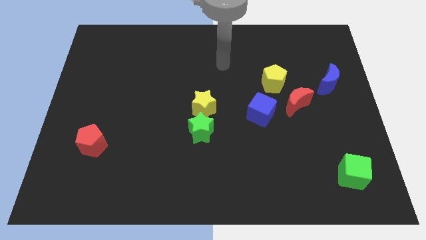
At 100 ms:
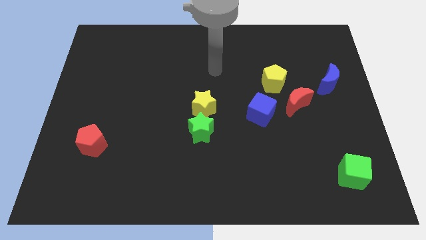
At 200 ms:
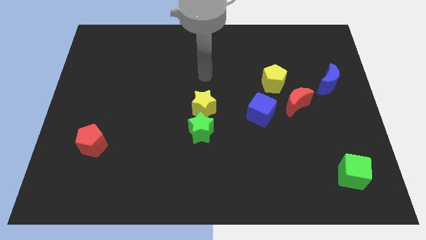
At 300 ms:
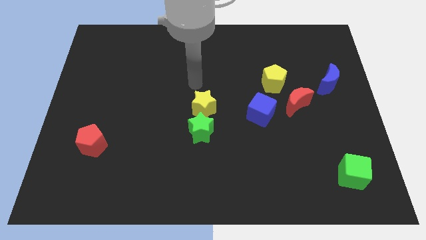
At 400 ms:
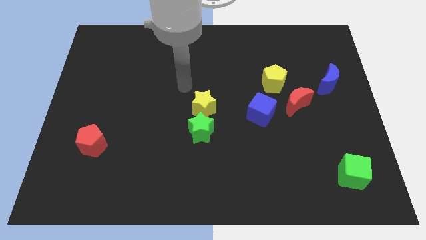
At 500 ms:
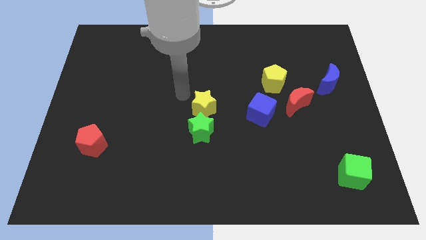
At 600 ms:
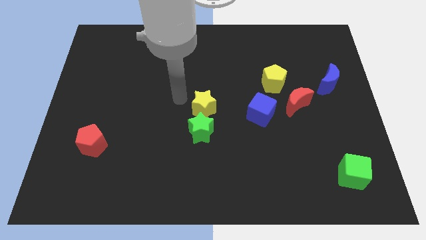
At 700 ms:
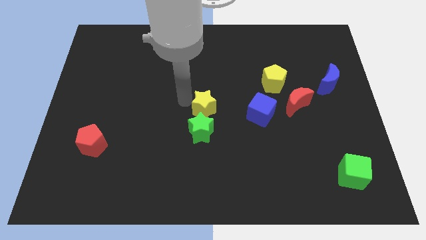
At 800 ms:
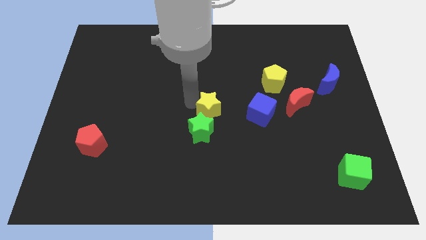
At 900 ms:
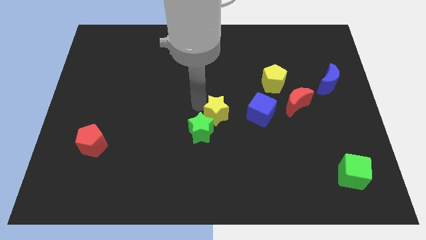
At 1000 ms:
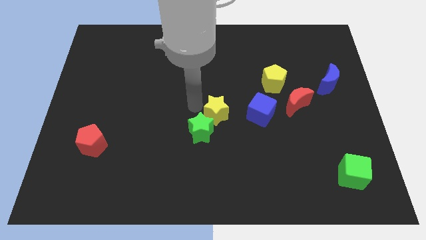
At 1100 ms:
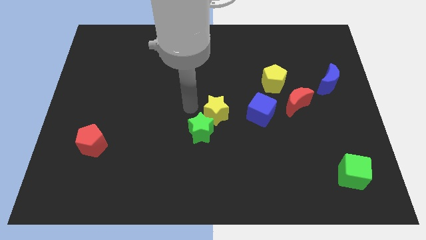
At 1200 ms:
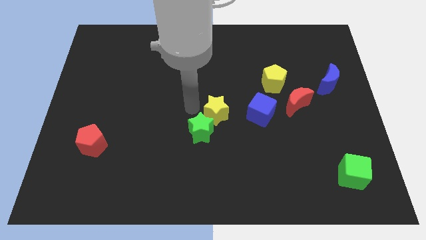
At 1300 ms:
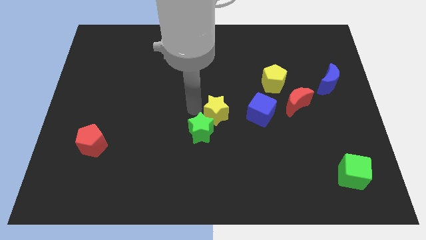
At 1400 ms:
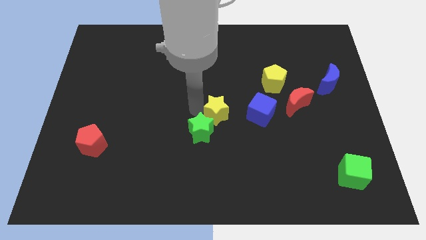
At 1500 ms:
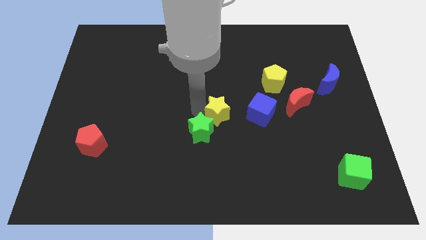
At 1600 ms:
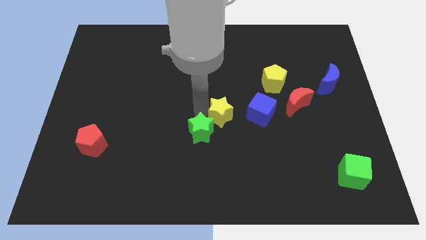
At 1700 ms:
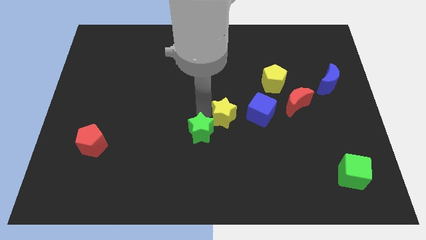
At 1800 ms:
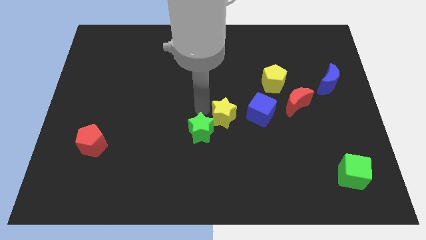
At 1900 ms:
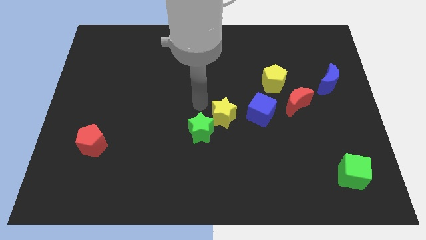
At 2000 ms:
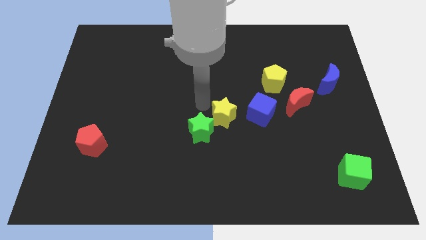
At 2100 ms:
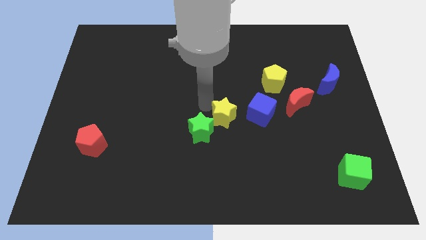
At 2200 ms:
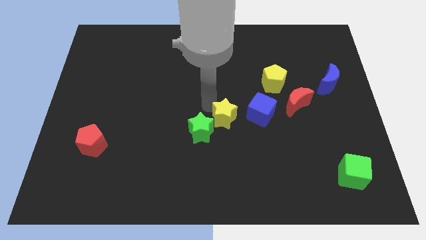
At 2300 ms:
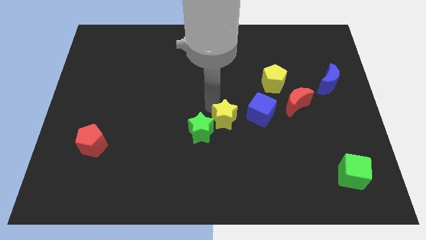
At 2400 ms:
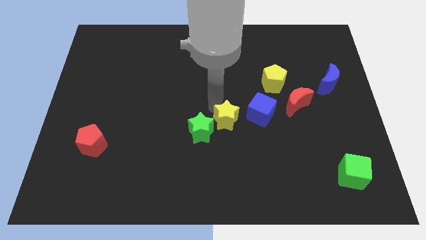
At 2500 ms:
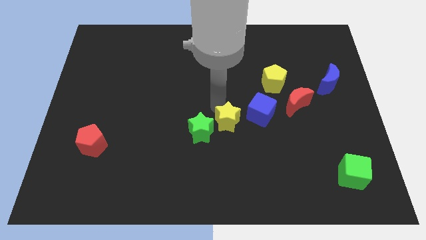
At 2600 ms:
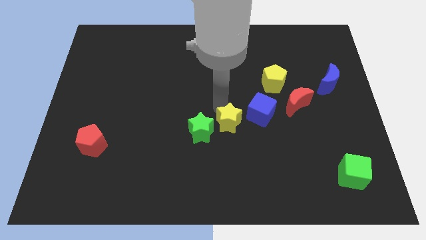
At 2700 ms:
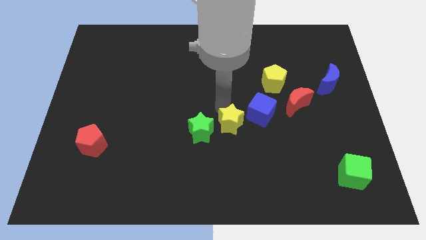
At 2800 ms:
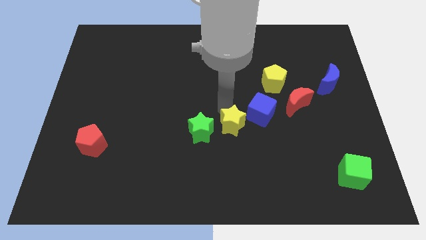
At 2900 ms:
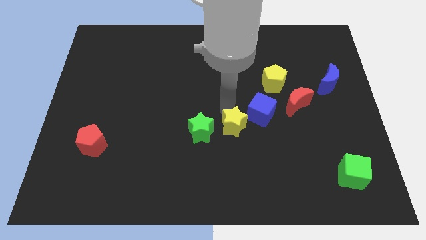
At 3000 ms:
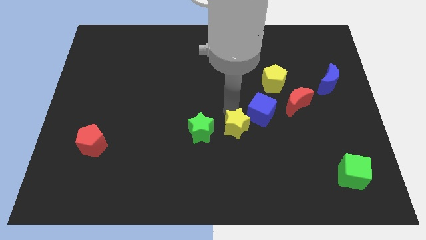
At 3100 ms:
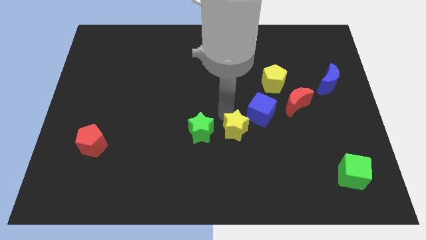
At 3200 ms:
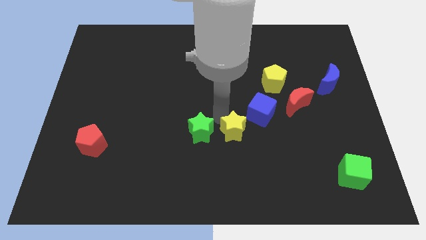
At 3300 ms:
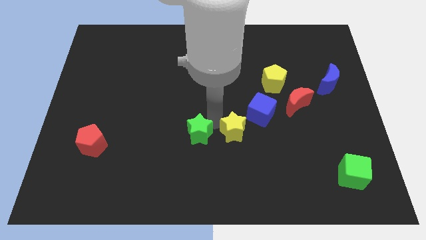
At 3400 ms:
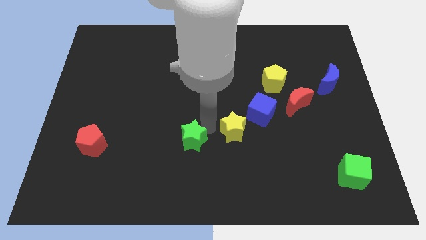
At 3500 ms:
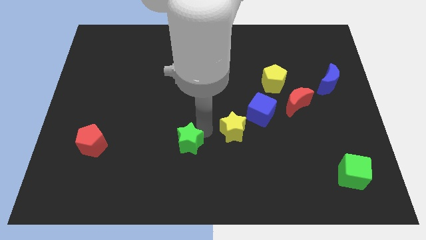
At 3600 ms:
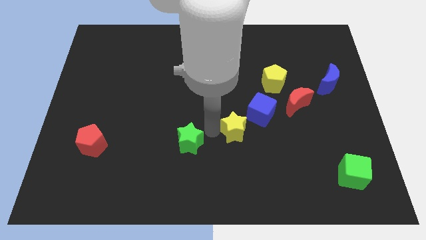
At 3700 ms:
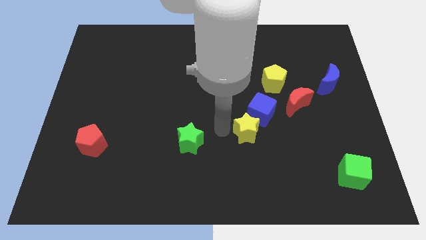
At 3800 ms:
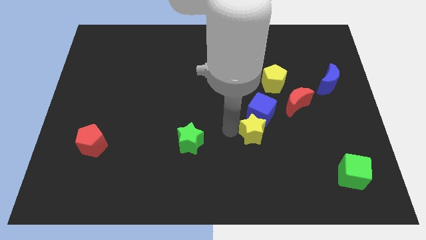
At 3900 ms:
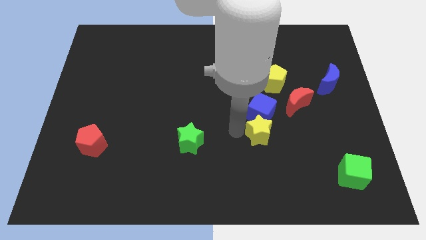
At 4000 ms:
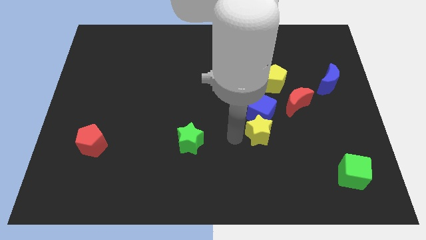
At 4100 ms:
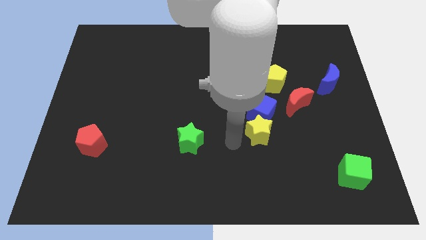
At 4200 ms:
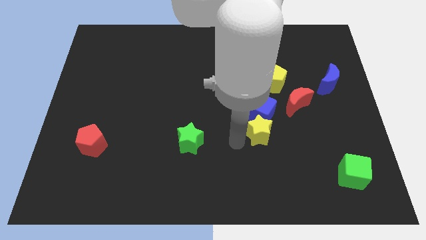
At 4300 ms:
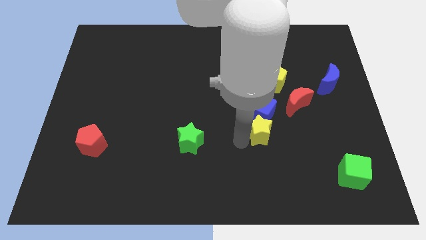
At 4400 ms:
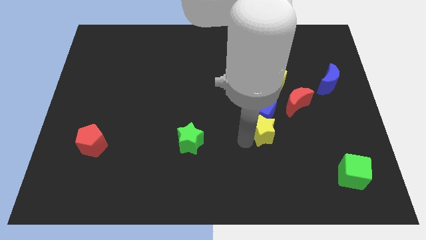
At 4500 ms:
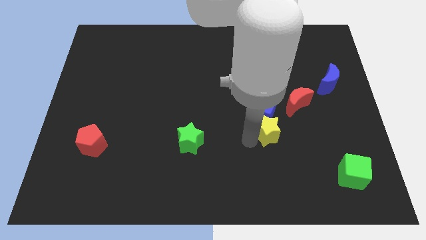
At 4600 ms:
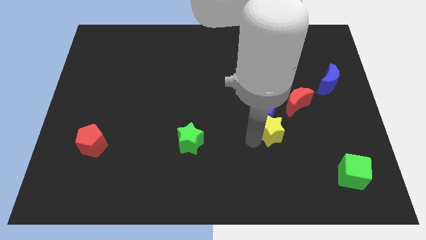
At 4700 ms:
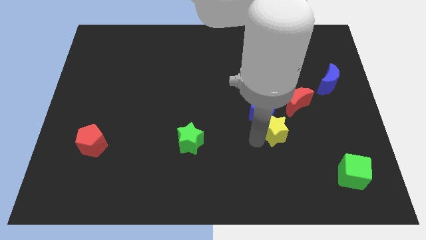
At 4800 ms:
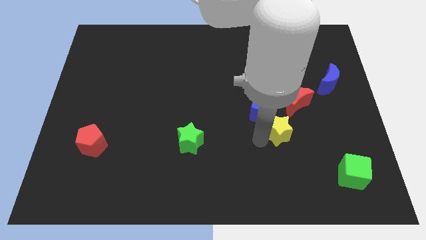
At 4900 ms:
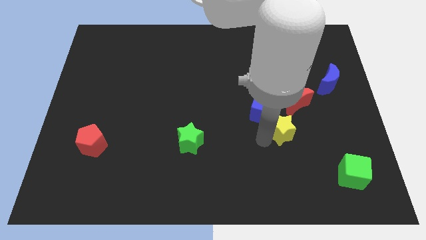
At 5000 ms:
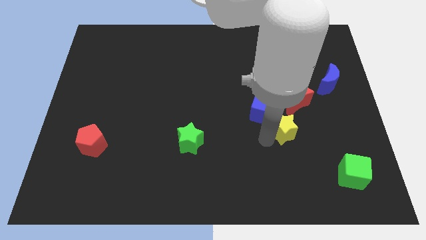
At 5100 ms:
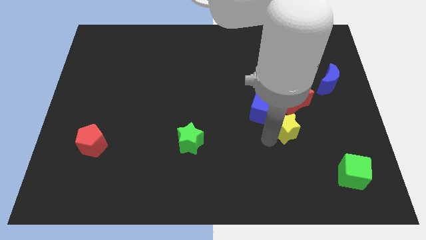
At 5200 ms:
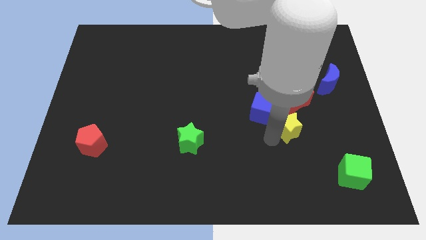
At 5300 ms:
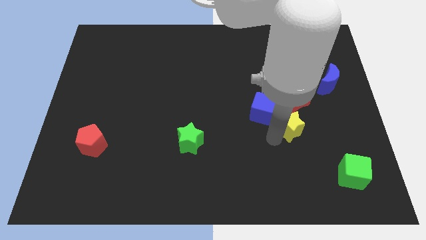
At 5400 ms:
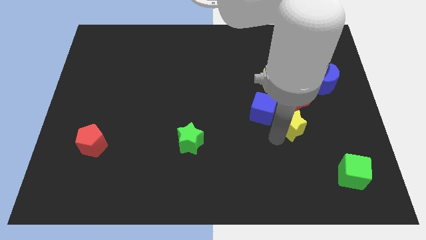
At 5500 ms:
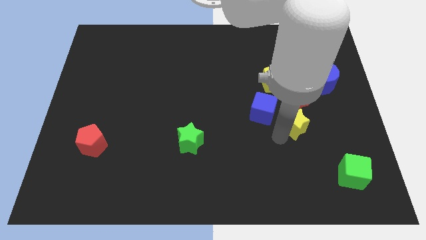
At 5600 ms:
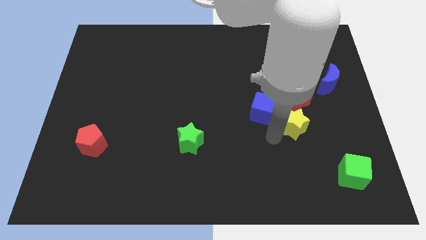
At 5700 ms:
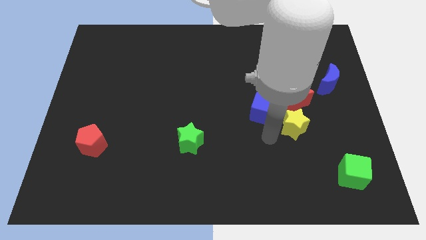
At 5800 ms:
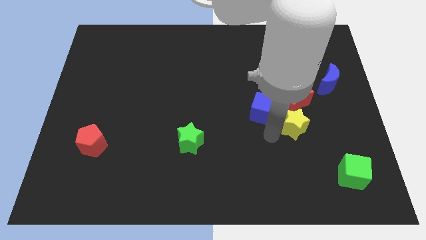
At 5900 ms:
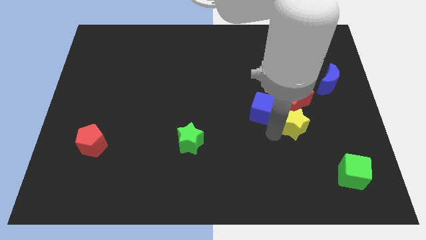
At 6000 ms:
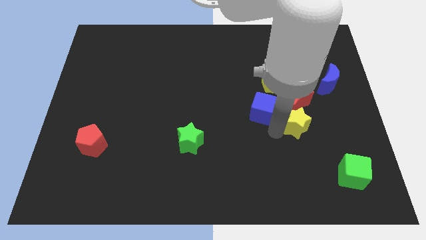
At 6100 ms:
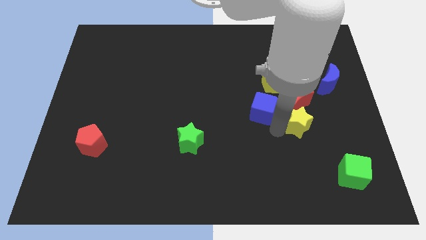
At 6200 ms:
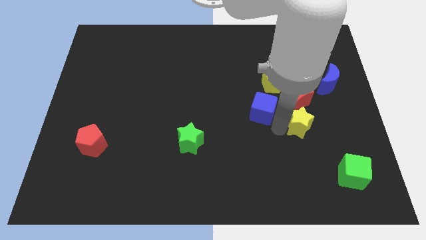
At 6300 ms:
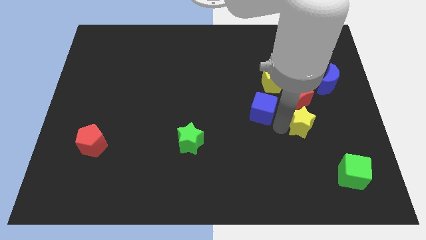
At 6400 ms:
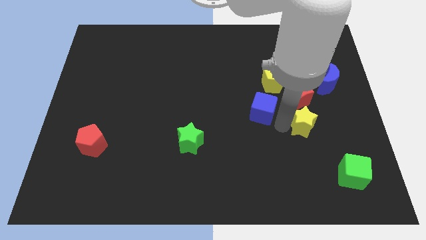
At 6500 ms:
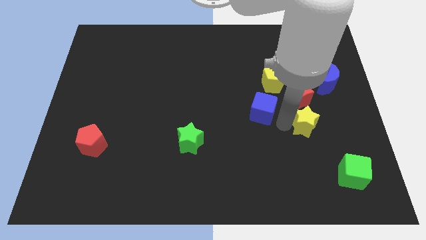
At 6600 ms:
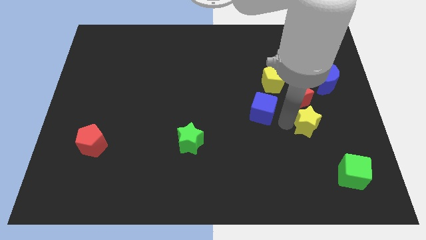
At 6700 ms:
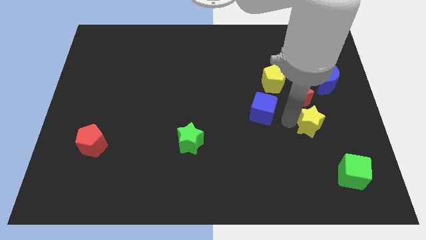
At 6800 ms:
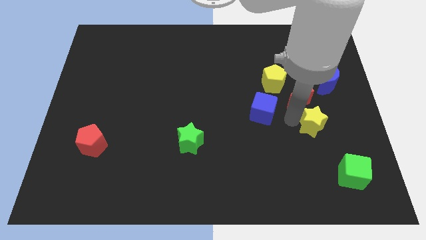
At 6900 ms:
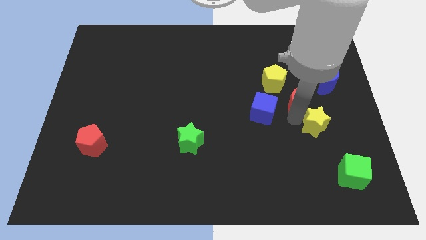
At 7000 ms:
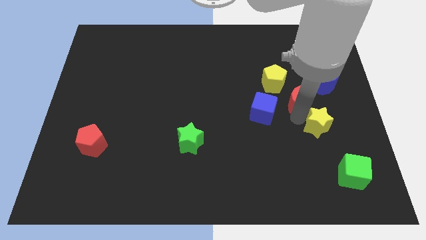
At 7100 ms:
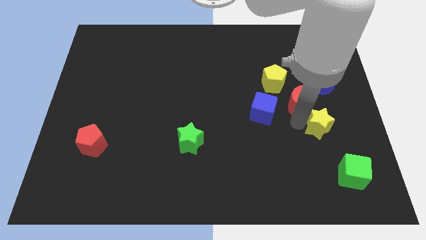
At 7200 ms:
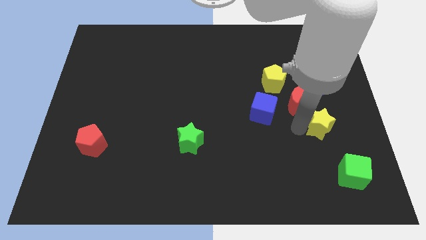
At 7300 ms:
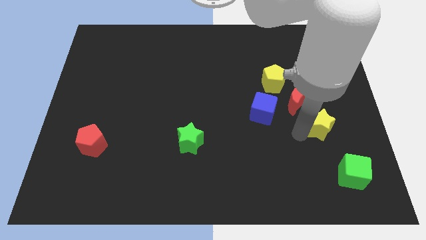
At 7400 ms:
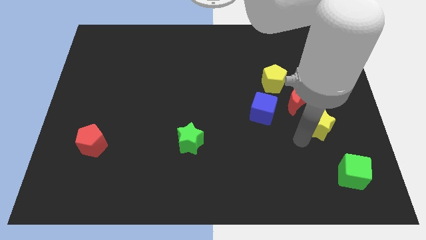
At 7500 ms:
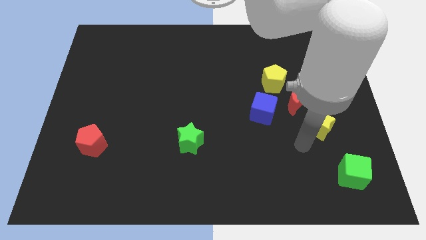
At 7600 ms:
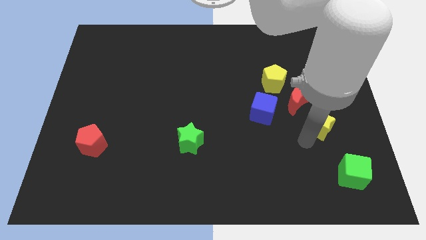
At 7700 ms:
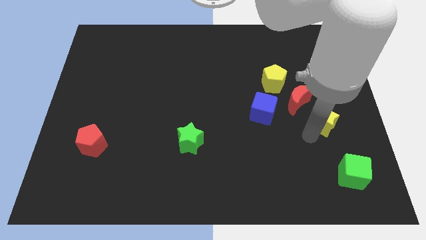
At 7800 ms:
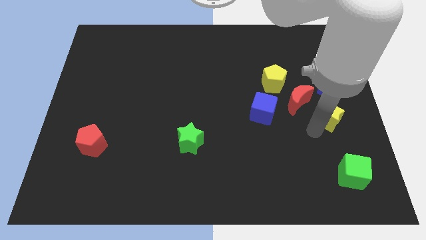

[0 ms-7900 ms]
put the yellow star to the right side of the board
